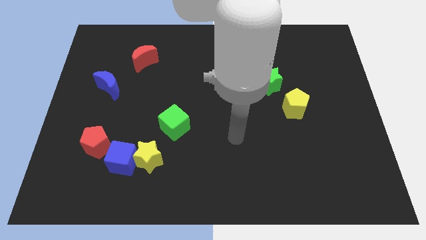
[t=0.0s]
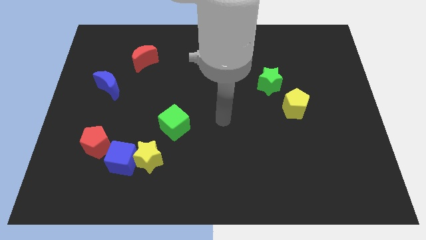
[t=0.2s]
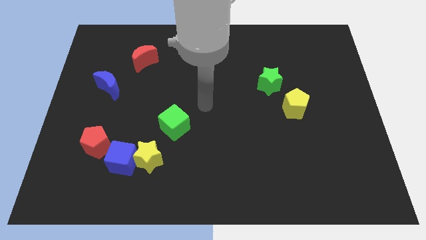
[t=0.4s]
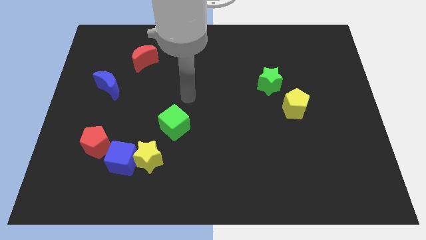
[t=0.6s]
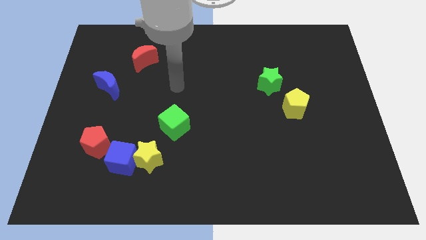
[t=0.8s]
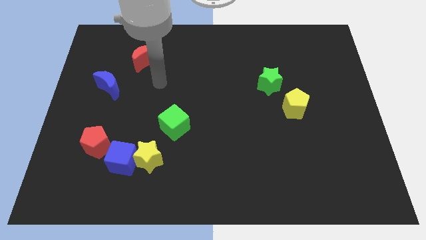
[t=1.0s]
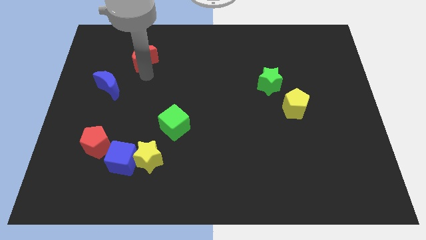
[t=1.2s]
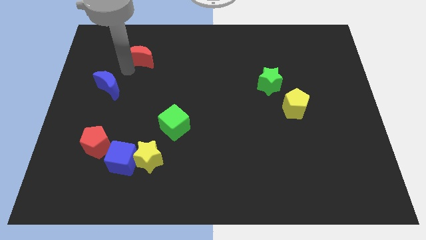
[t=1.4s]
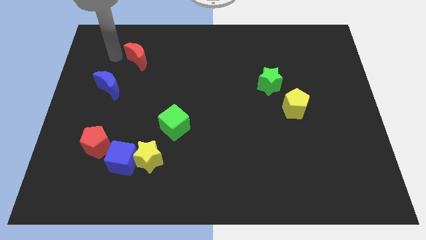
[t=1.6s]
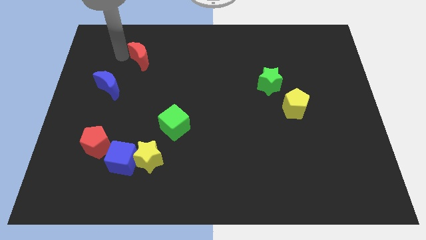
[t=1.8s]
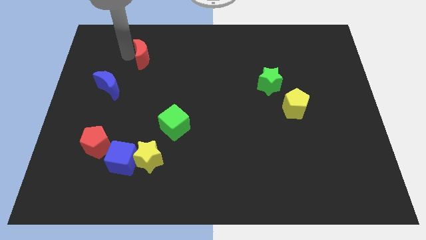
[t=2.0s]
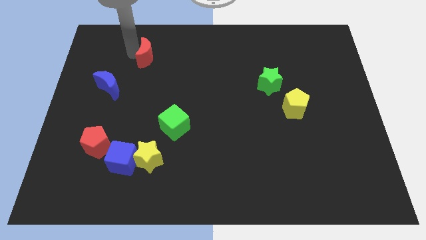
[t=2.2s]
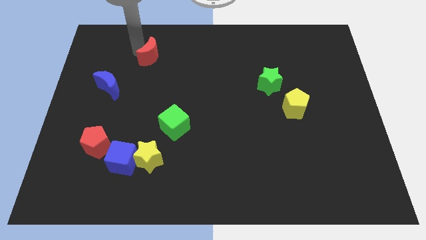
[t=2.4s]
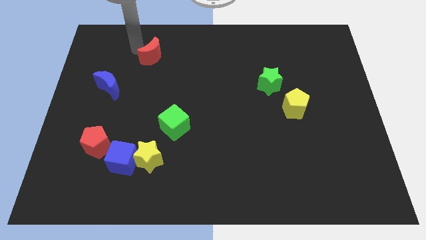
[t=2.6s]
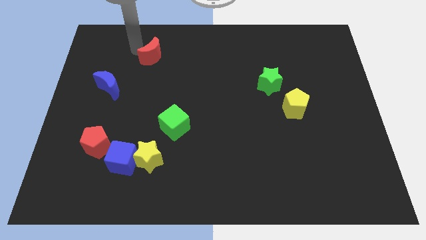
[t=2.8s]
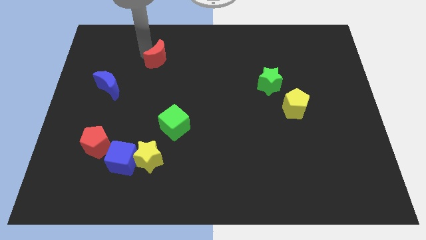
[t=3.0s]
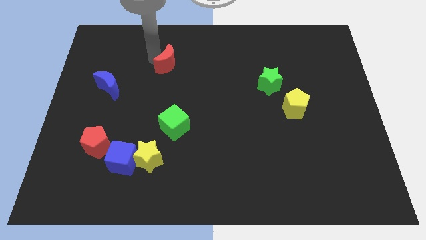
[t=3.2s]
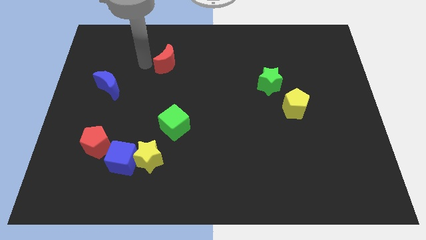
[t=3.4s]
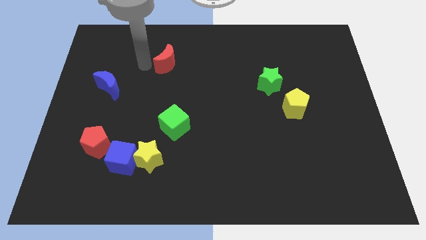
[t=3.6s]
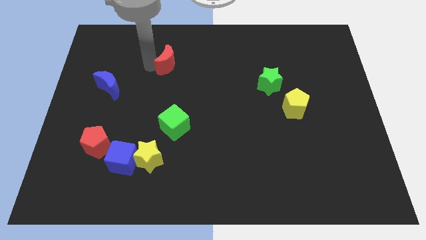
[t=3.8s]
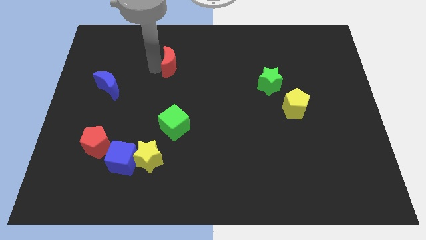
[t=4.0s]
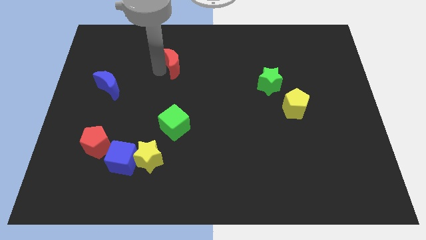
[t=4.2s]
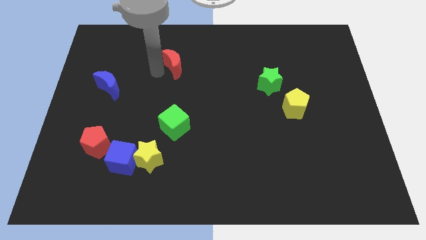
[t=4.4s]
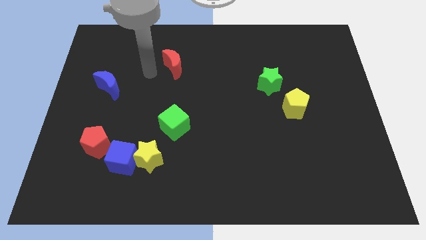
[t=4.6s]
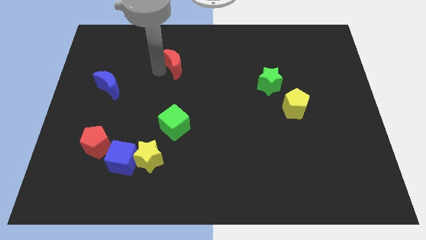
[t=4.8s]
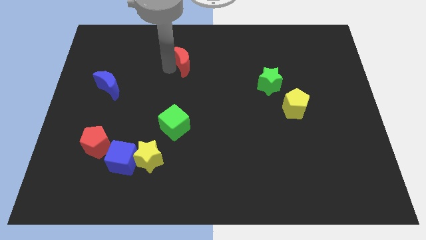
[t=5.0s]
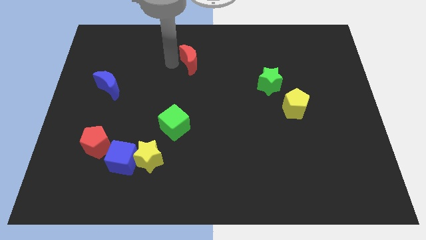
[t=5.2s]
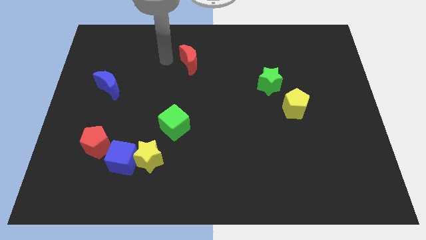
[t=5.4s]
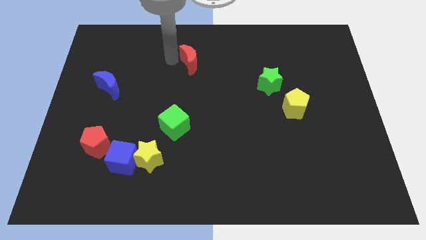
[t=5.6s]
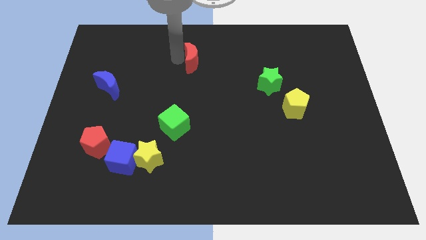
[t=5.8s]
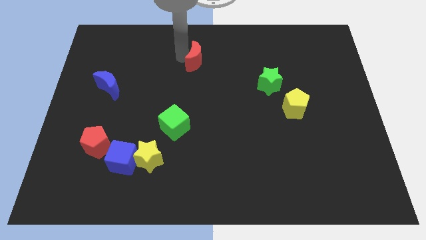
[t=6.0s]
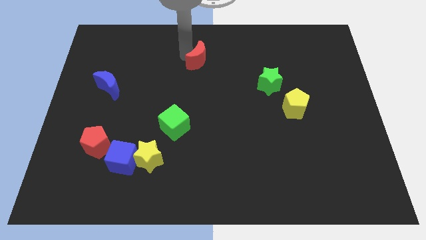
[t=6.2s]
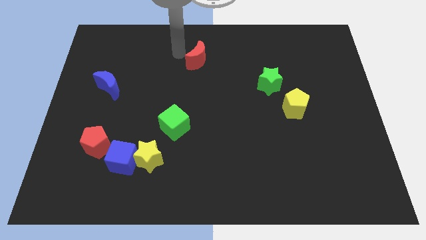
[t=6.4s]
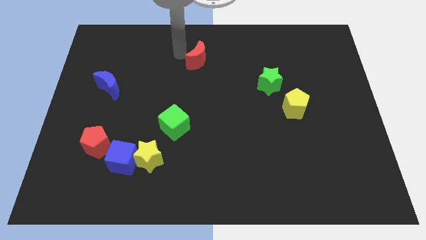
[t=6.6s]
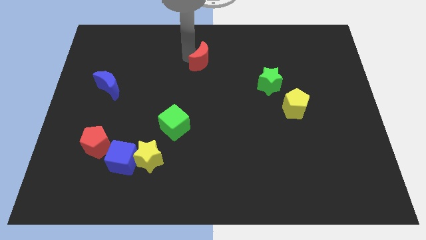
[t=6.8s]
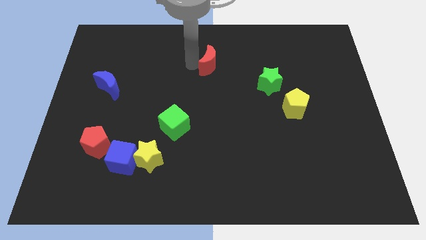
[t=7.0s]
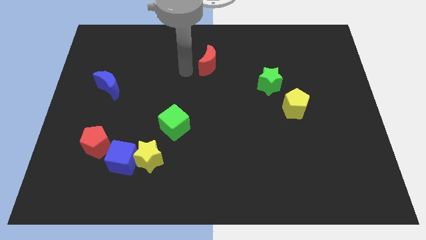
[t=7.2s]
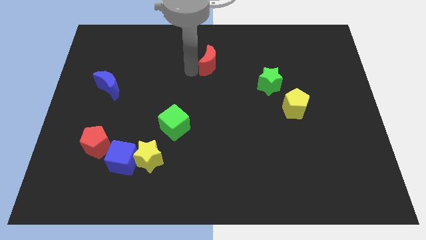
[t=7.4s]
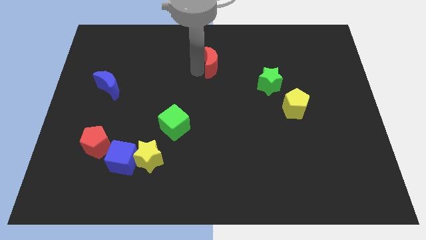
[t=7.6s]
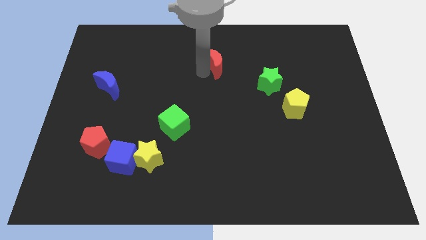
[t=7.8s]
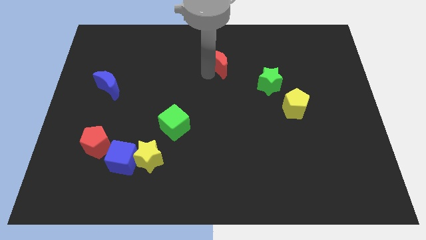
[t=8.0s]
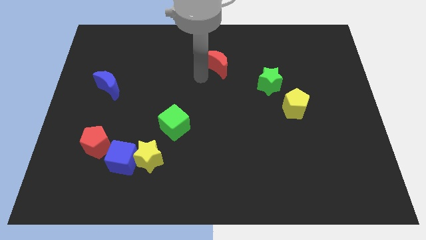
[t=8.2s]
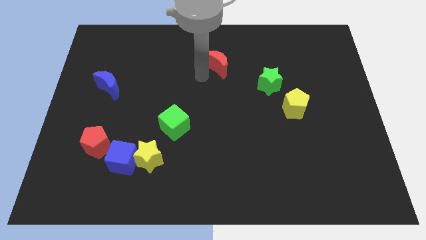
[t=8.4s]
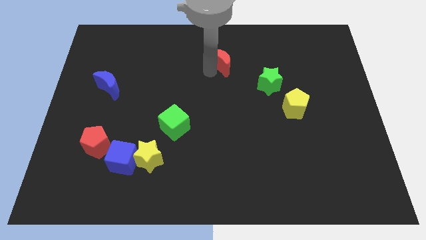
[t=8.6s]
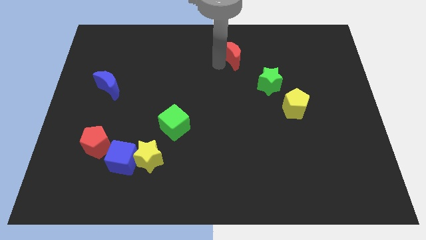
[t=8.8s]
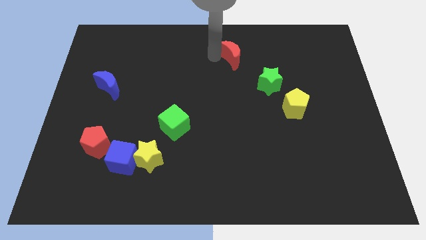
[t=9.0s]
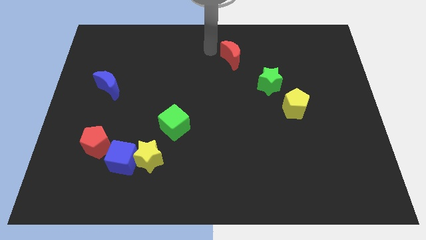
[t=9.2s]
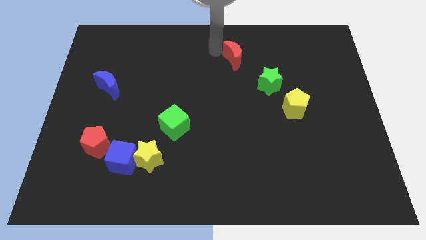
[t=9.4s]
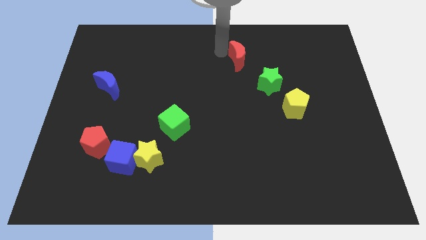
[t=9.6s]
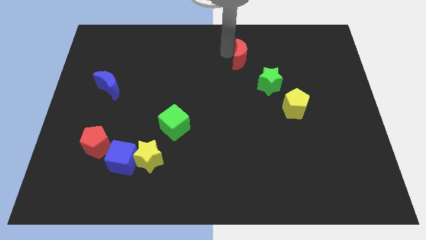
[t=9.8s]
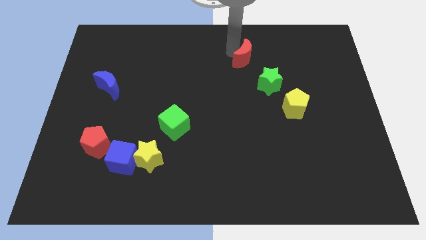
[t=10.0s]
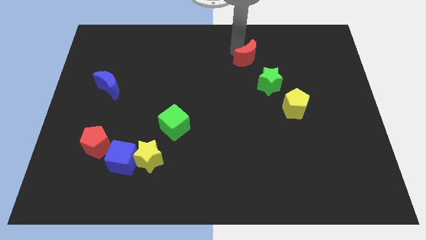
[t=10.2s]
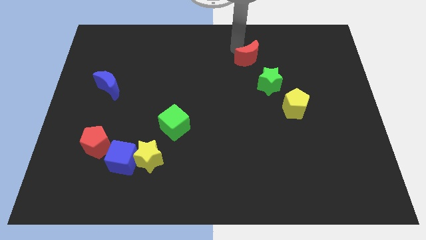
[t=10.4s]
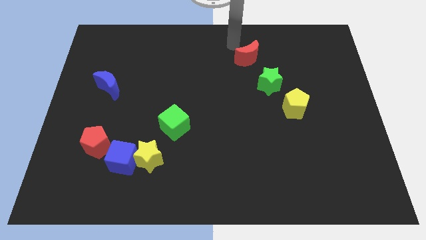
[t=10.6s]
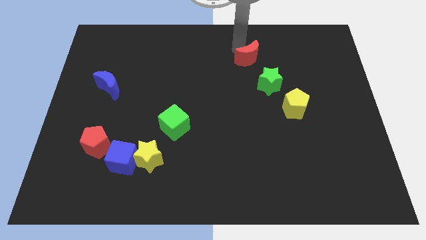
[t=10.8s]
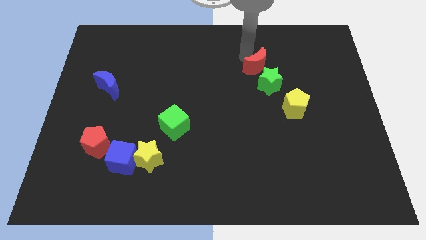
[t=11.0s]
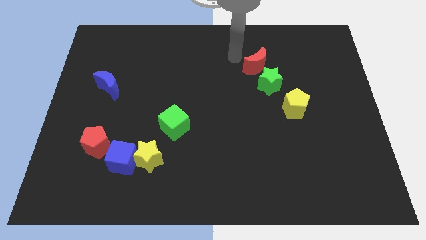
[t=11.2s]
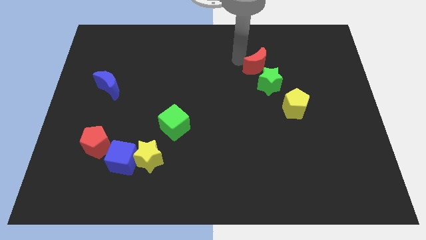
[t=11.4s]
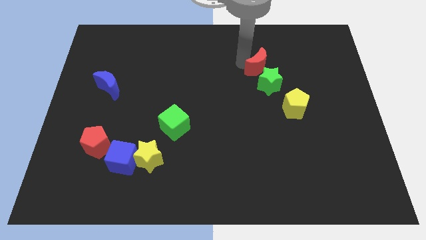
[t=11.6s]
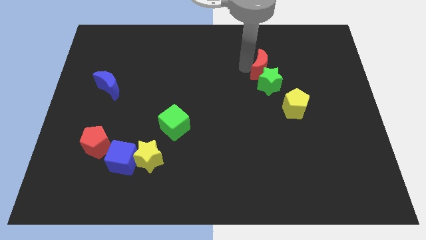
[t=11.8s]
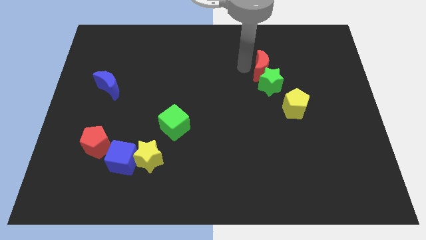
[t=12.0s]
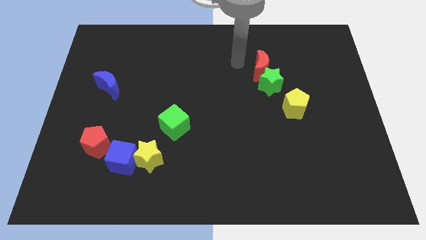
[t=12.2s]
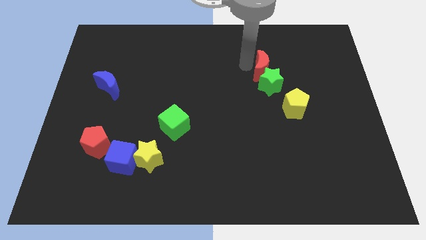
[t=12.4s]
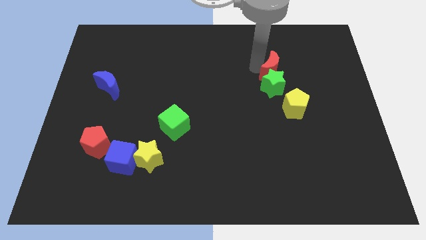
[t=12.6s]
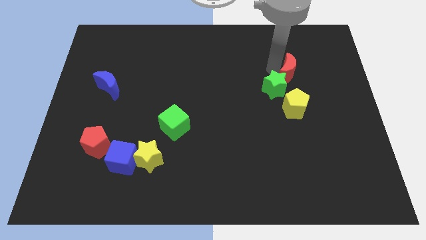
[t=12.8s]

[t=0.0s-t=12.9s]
slide the red moon to the right of the green star

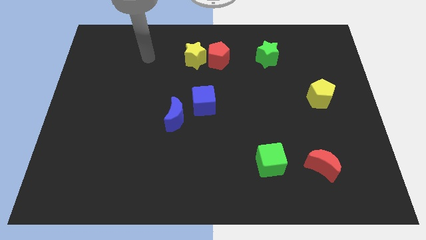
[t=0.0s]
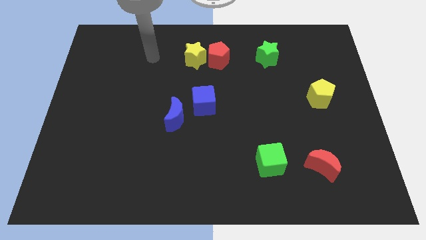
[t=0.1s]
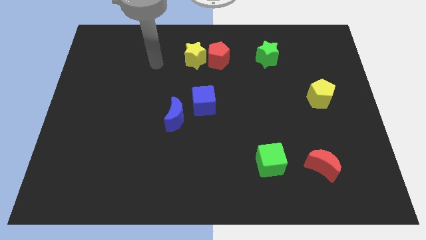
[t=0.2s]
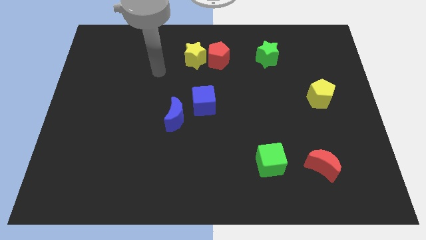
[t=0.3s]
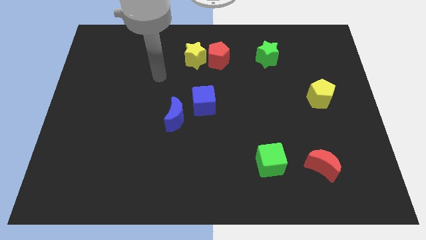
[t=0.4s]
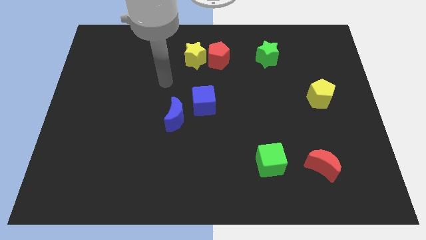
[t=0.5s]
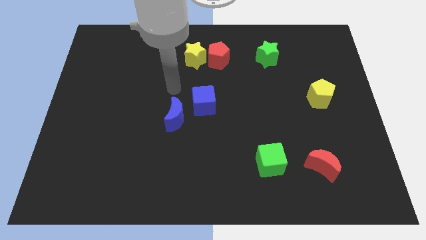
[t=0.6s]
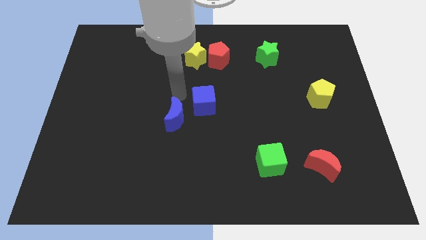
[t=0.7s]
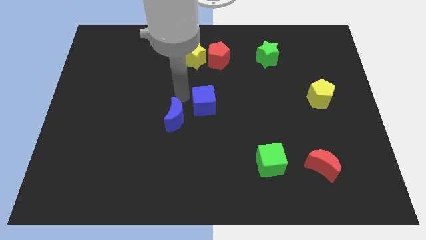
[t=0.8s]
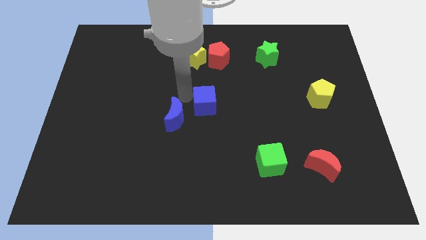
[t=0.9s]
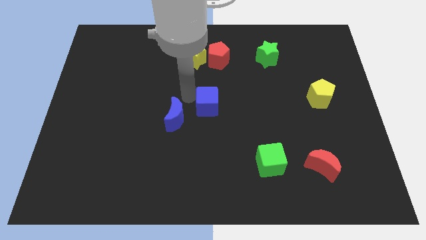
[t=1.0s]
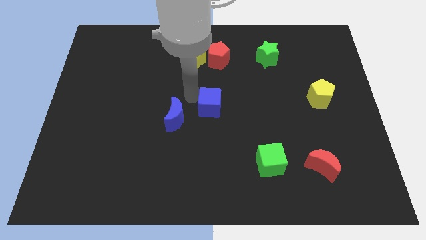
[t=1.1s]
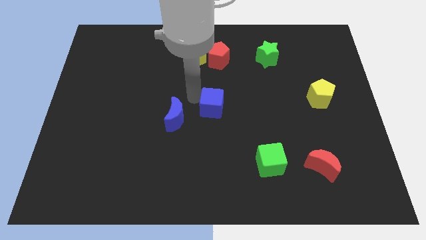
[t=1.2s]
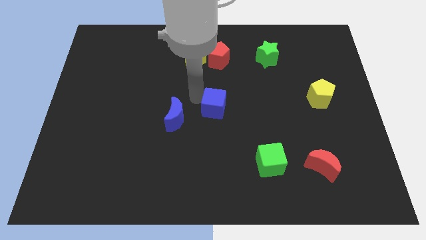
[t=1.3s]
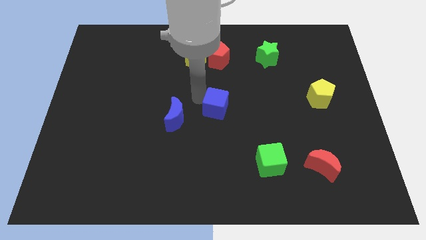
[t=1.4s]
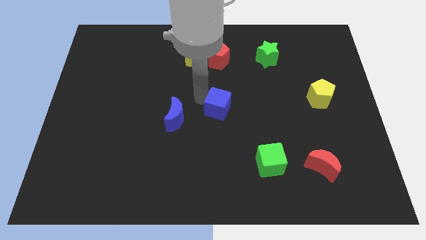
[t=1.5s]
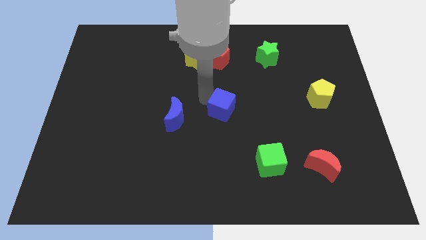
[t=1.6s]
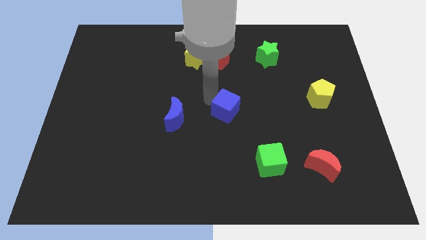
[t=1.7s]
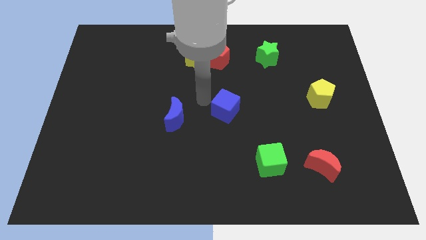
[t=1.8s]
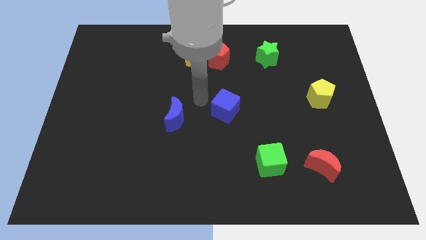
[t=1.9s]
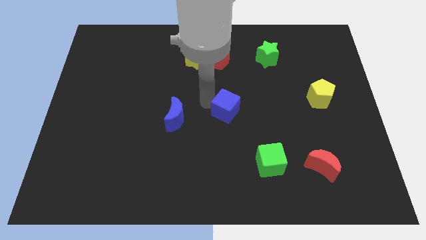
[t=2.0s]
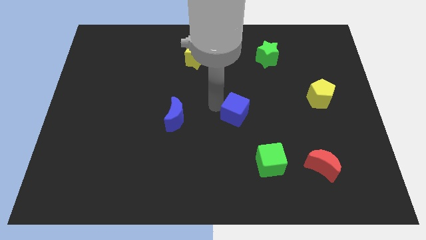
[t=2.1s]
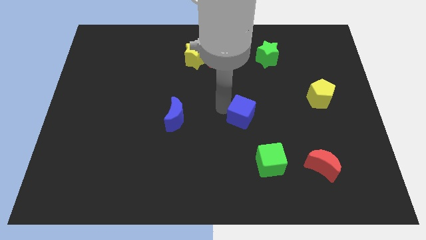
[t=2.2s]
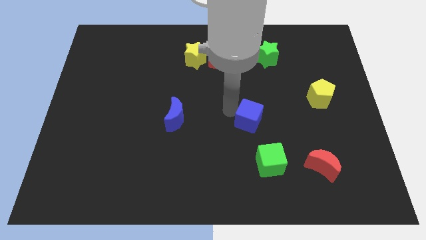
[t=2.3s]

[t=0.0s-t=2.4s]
move the blue cube to the top of the green cube
